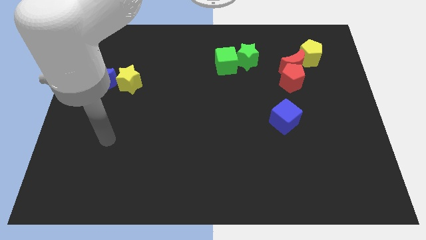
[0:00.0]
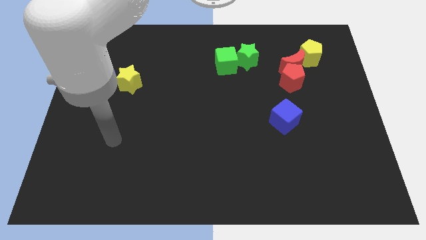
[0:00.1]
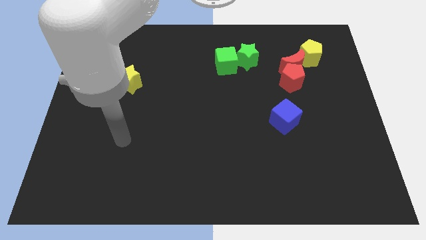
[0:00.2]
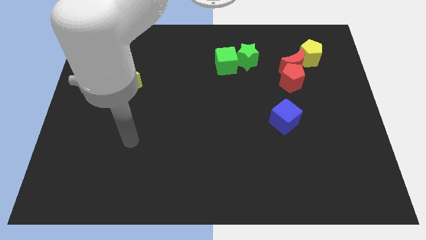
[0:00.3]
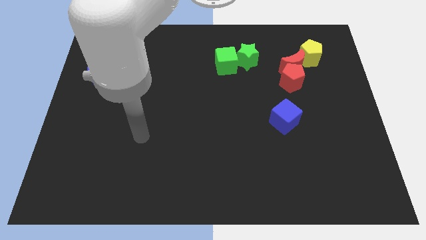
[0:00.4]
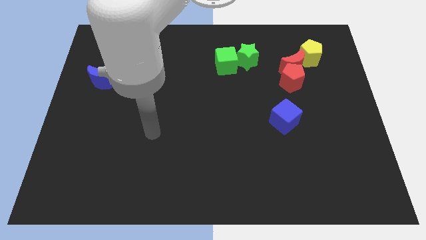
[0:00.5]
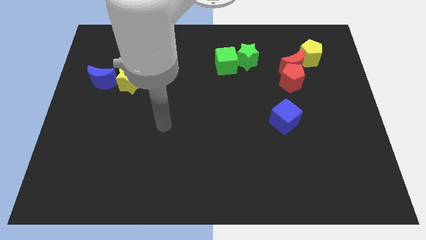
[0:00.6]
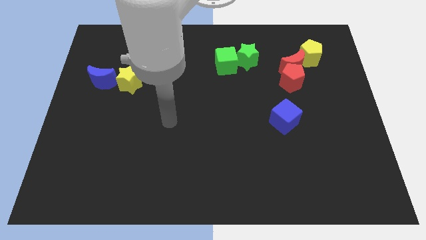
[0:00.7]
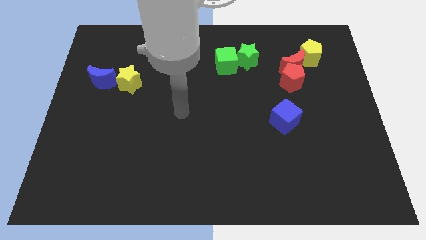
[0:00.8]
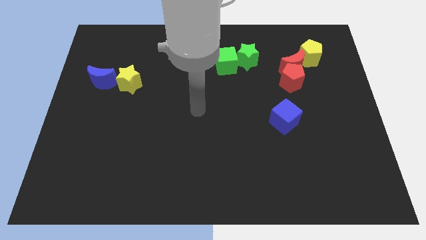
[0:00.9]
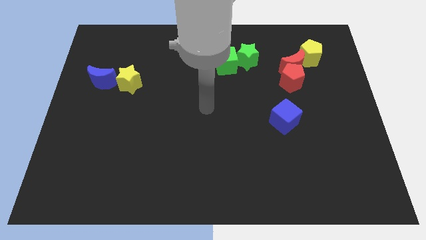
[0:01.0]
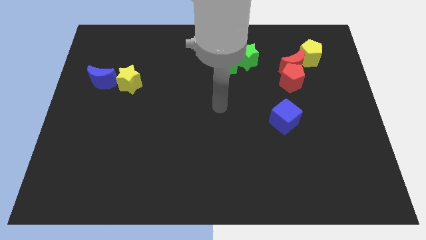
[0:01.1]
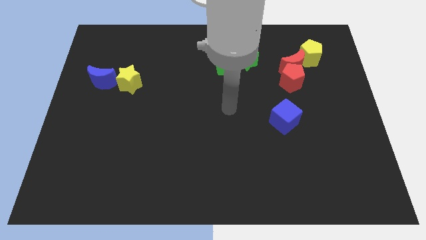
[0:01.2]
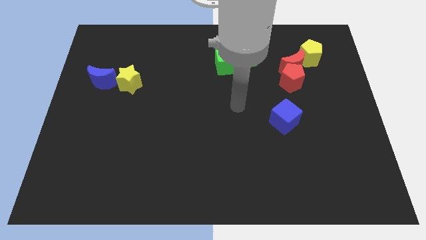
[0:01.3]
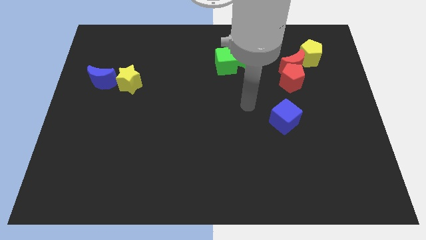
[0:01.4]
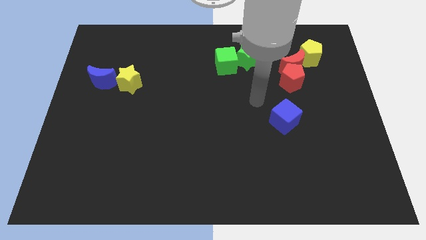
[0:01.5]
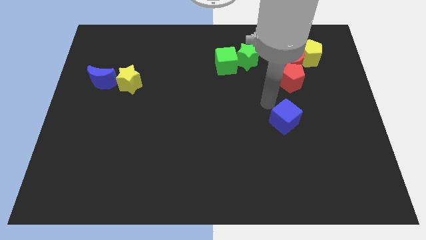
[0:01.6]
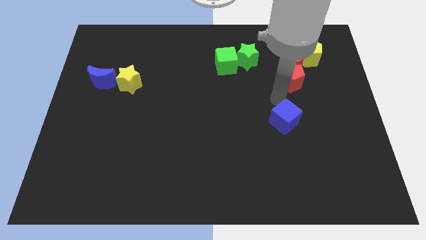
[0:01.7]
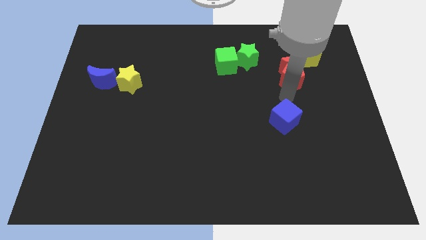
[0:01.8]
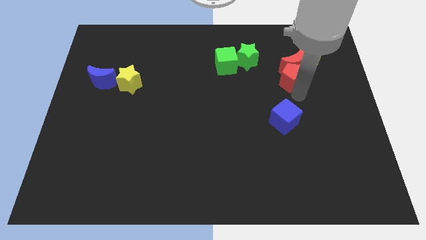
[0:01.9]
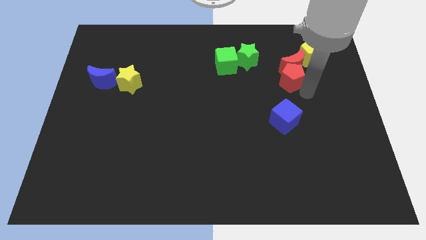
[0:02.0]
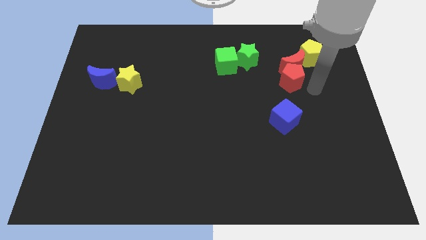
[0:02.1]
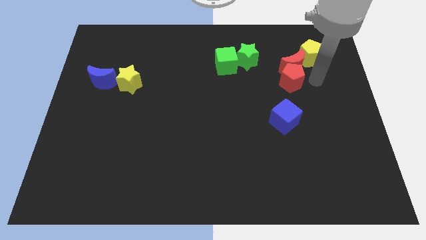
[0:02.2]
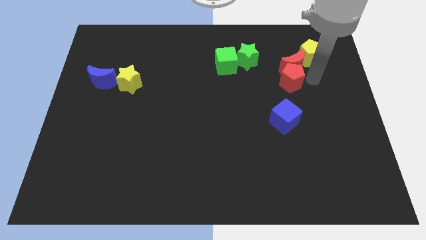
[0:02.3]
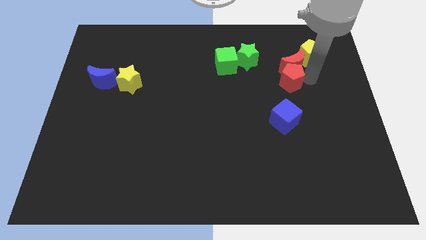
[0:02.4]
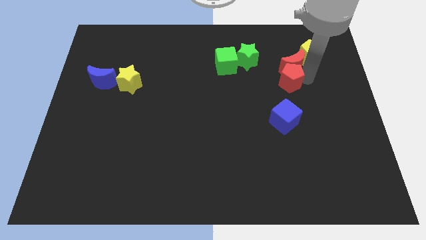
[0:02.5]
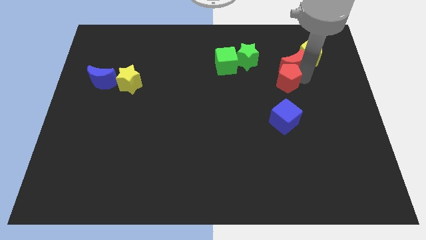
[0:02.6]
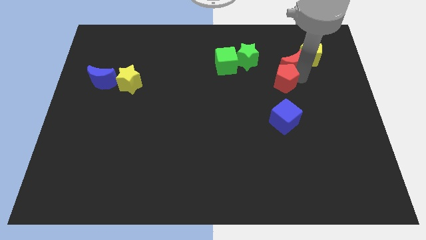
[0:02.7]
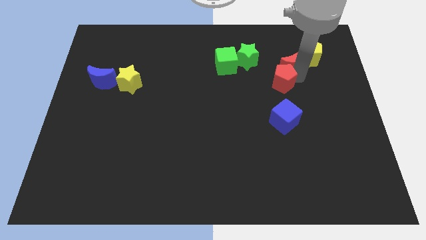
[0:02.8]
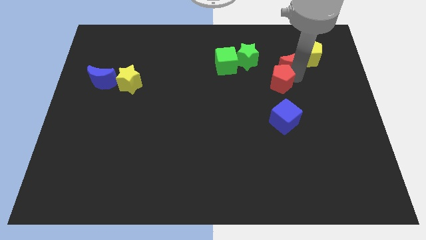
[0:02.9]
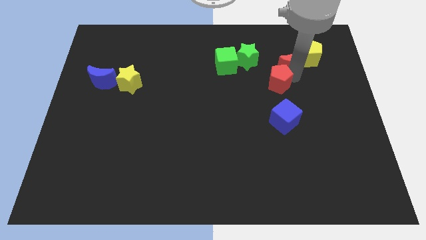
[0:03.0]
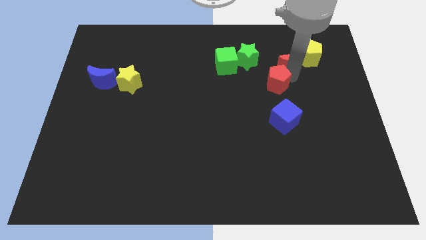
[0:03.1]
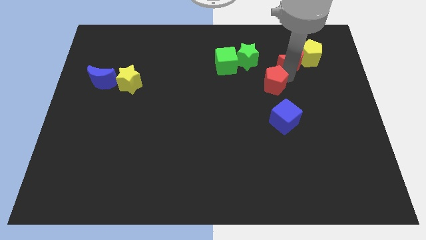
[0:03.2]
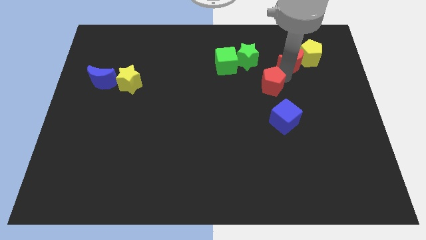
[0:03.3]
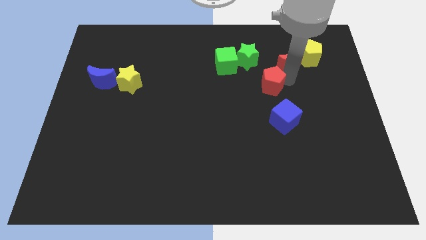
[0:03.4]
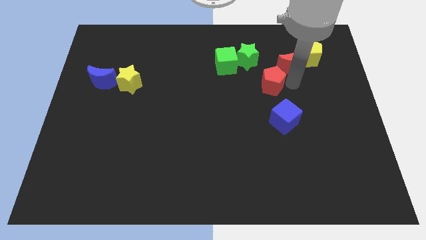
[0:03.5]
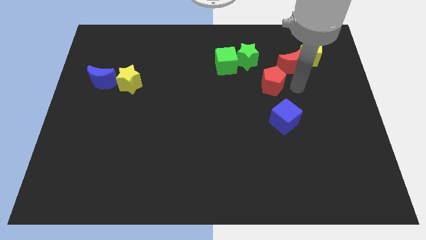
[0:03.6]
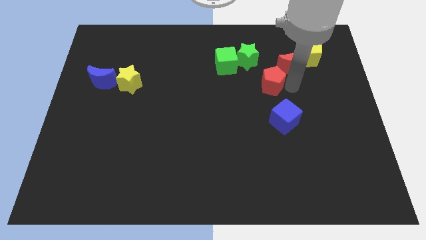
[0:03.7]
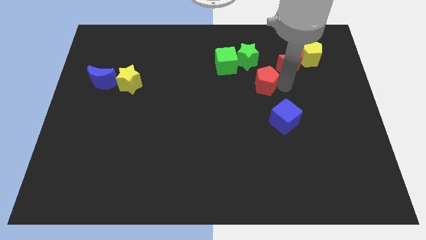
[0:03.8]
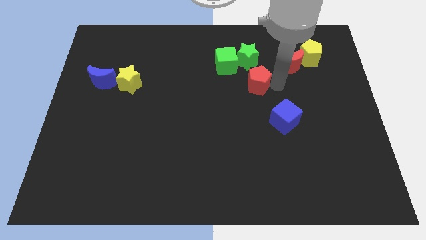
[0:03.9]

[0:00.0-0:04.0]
push the red pentagon a little left

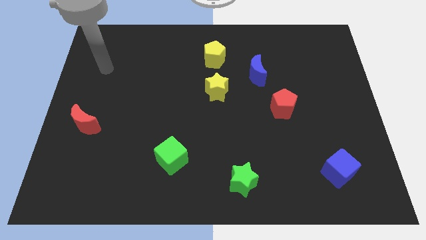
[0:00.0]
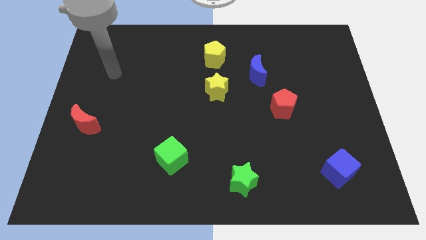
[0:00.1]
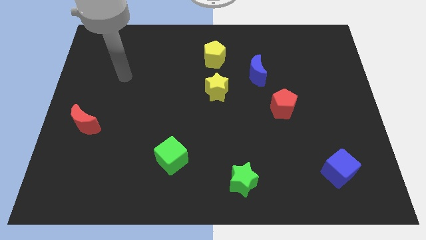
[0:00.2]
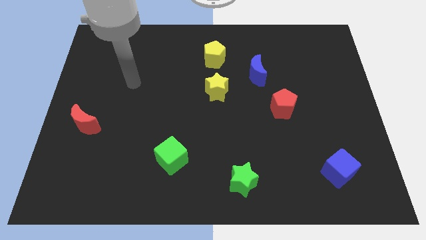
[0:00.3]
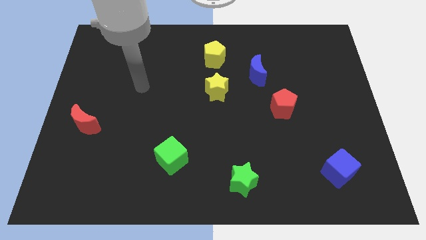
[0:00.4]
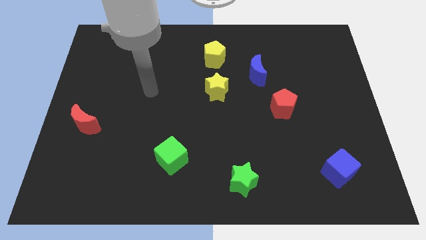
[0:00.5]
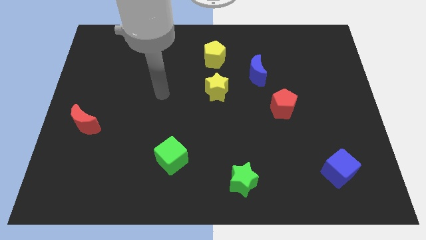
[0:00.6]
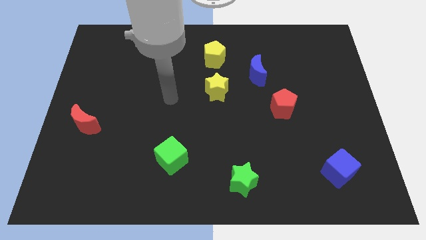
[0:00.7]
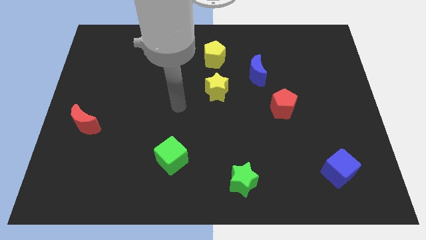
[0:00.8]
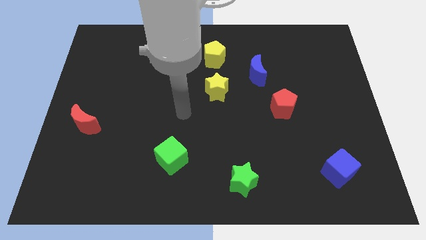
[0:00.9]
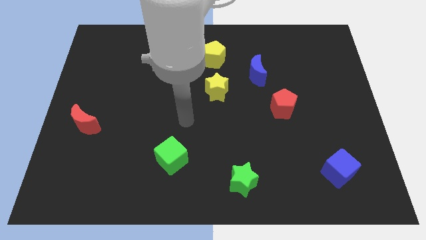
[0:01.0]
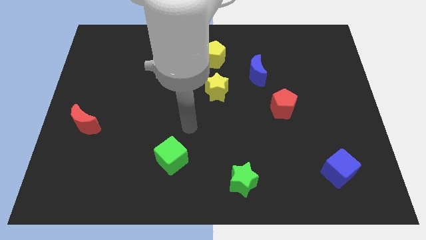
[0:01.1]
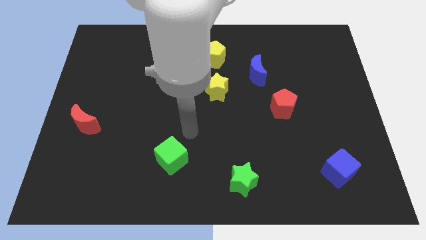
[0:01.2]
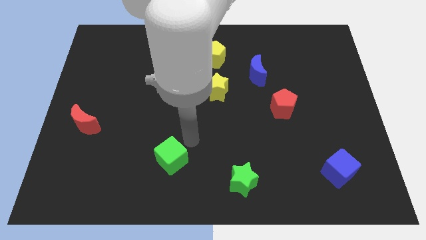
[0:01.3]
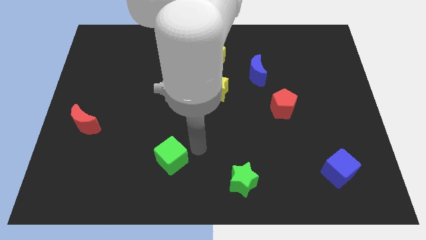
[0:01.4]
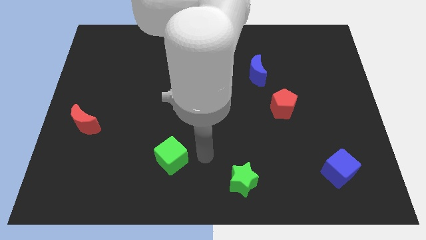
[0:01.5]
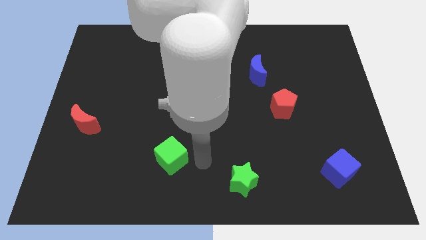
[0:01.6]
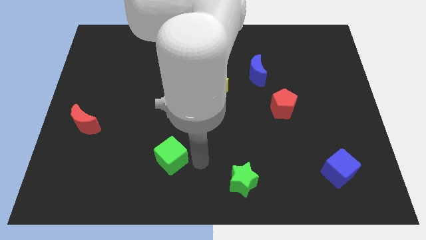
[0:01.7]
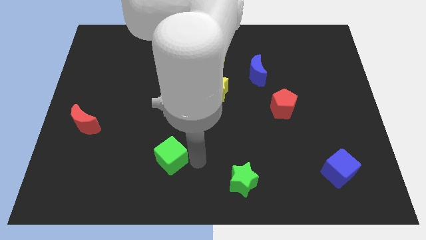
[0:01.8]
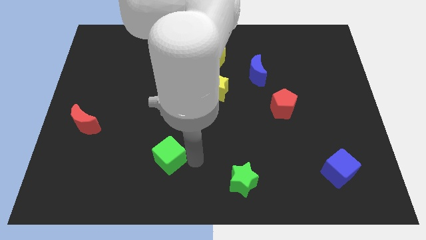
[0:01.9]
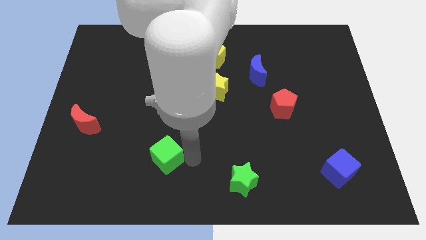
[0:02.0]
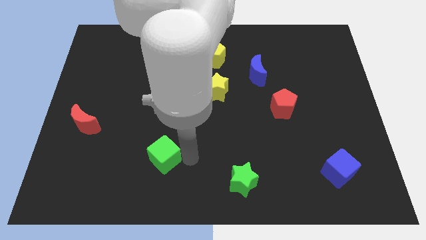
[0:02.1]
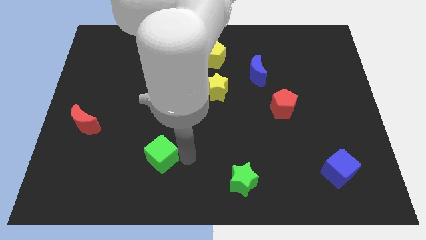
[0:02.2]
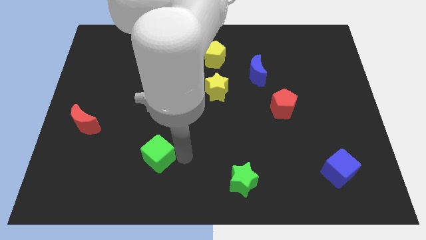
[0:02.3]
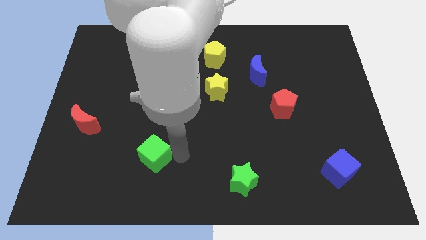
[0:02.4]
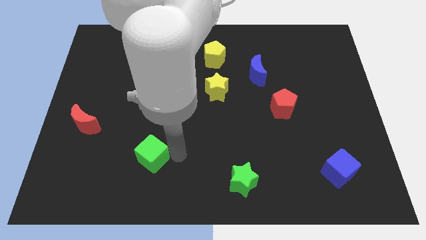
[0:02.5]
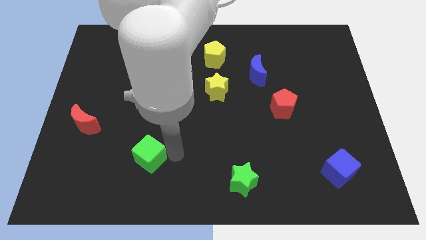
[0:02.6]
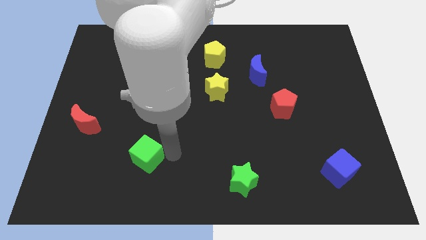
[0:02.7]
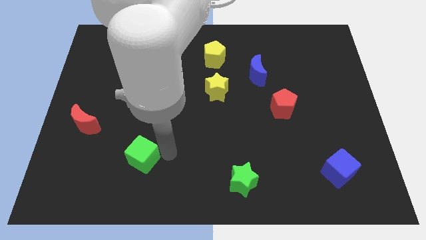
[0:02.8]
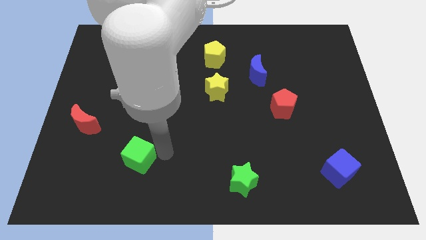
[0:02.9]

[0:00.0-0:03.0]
push the green cube to the left a little bit

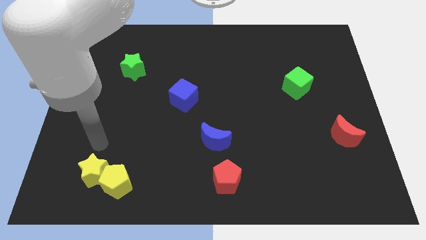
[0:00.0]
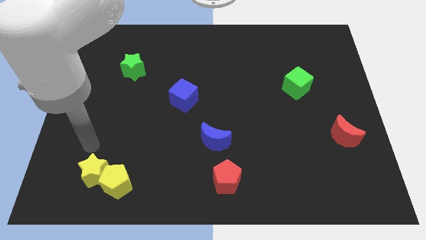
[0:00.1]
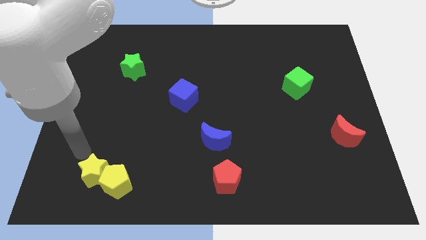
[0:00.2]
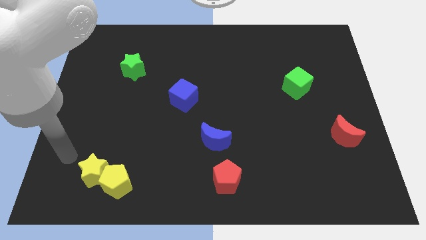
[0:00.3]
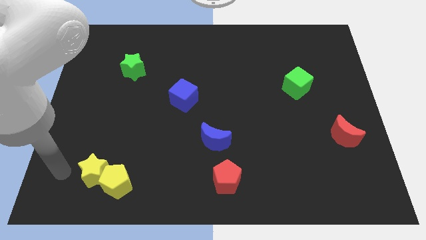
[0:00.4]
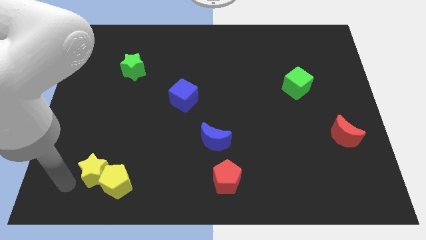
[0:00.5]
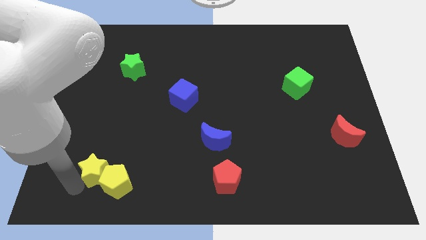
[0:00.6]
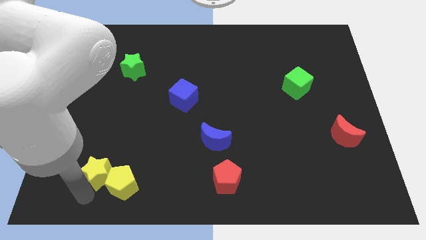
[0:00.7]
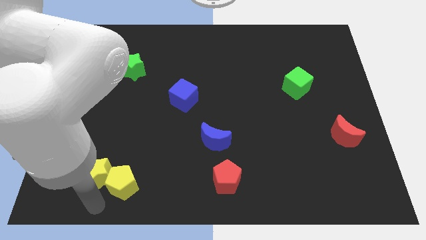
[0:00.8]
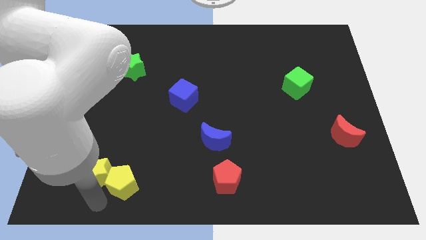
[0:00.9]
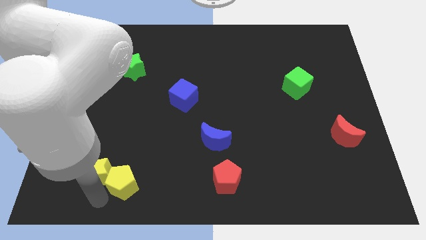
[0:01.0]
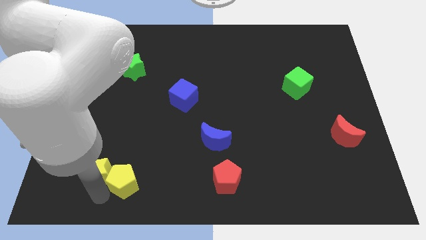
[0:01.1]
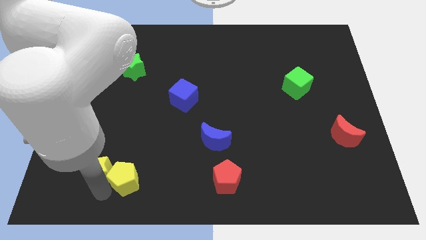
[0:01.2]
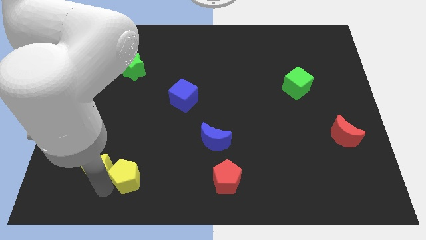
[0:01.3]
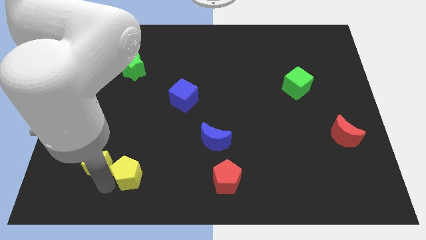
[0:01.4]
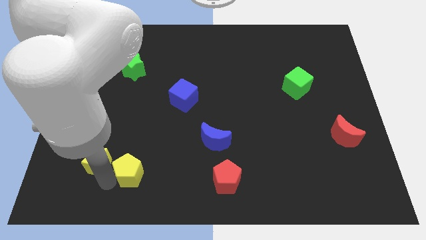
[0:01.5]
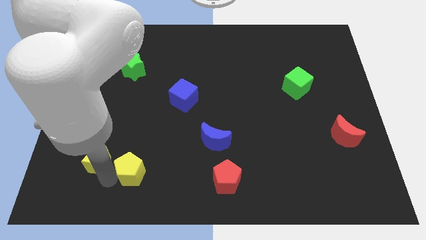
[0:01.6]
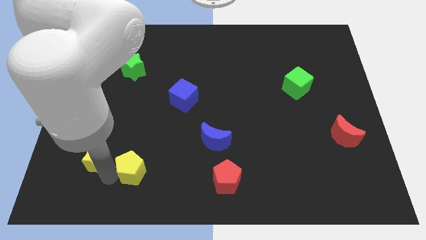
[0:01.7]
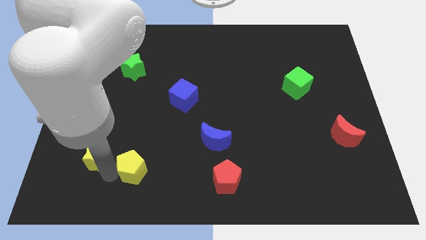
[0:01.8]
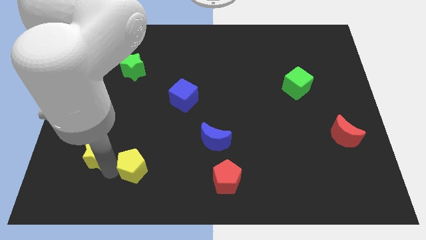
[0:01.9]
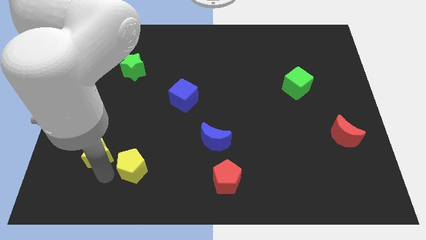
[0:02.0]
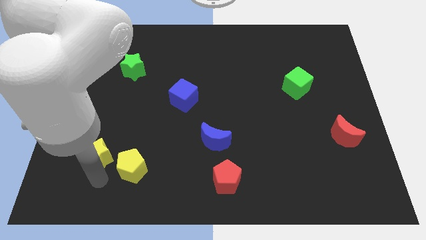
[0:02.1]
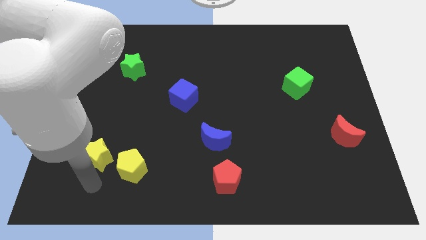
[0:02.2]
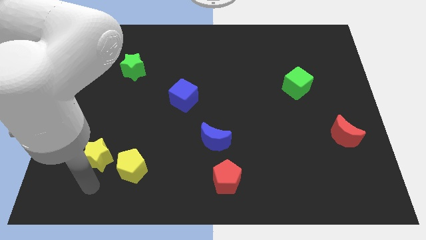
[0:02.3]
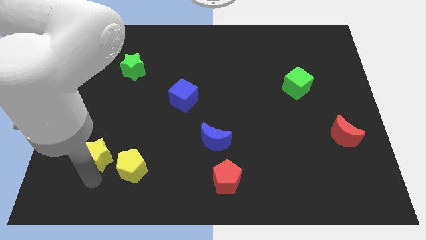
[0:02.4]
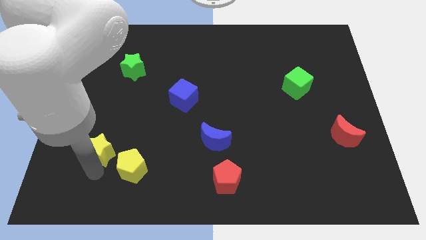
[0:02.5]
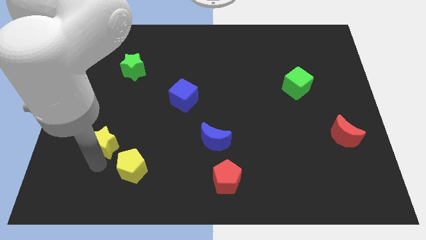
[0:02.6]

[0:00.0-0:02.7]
move the yellow star a bit up
